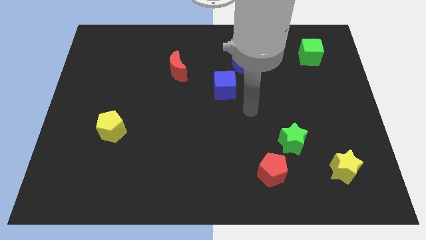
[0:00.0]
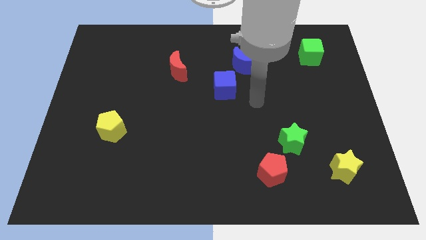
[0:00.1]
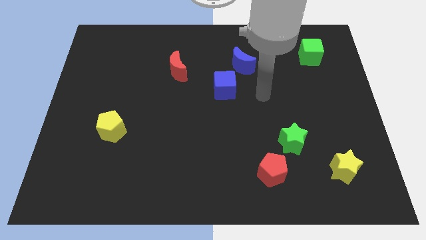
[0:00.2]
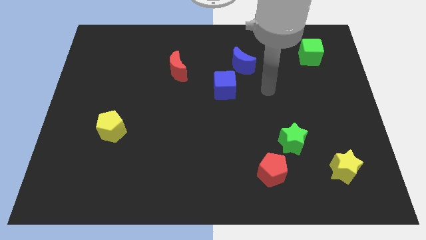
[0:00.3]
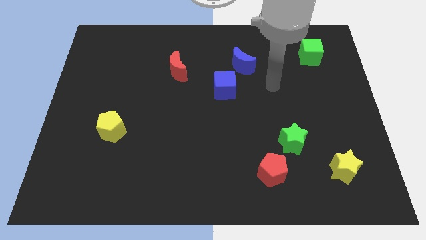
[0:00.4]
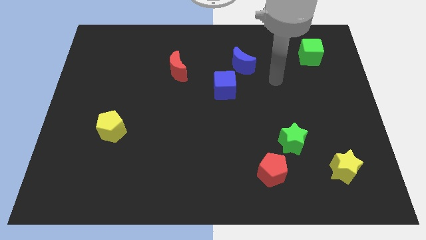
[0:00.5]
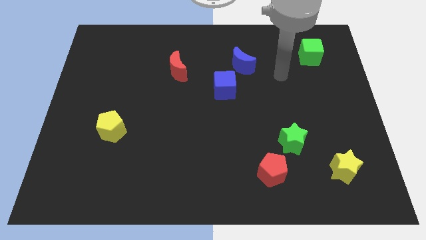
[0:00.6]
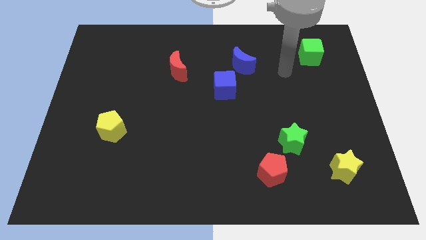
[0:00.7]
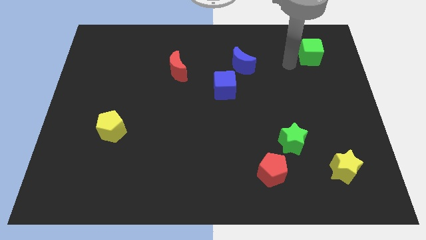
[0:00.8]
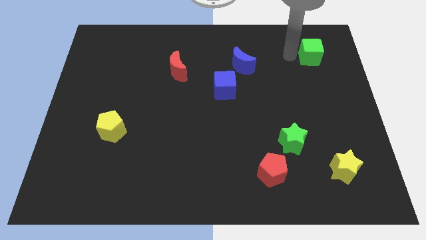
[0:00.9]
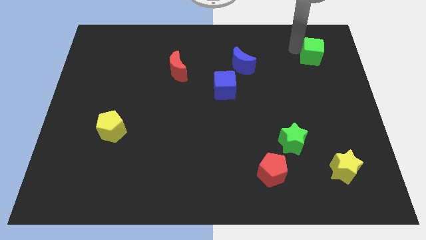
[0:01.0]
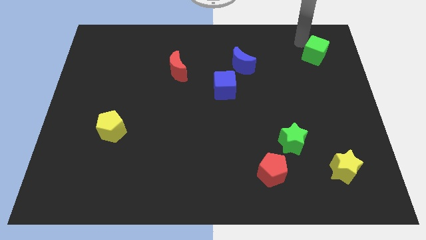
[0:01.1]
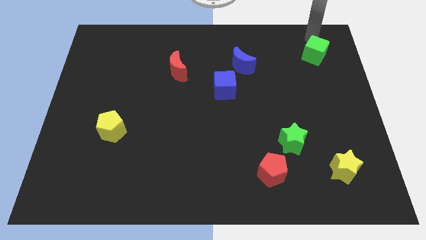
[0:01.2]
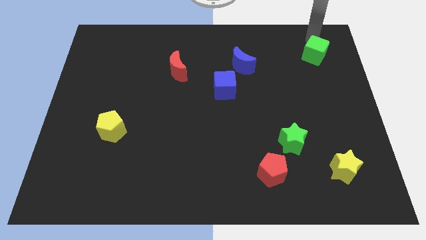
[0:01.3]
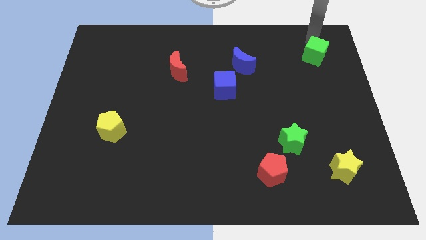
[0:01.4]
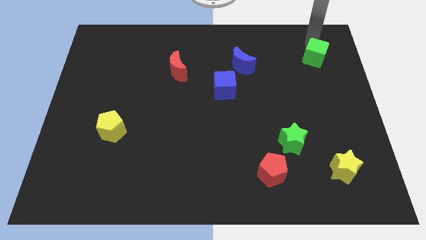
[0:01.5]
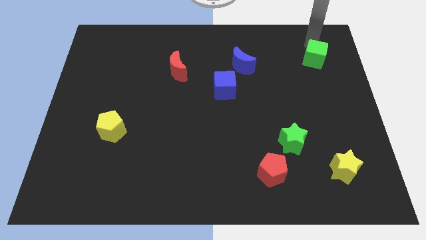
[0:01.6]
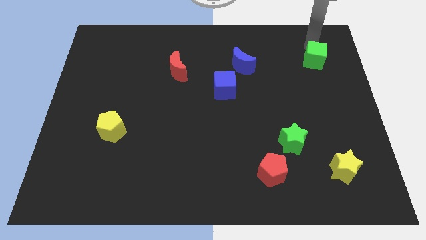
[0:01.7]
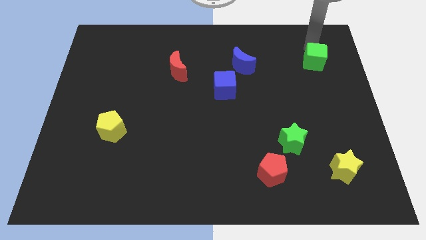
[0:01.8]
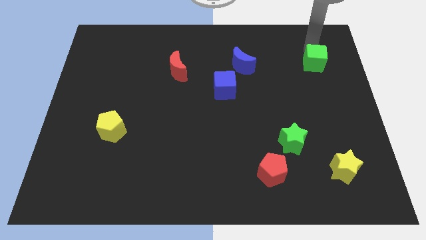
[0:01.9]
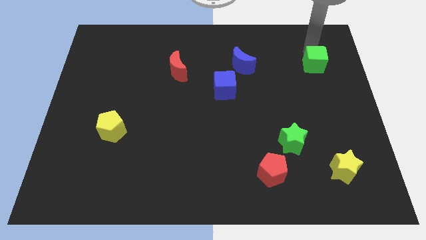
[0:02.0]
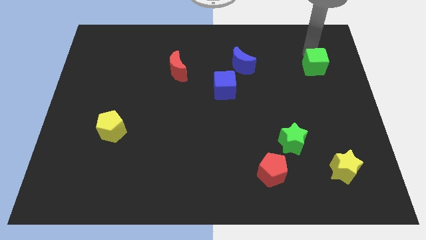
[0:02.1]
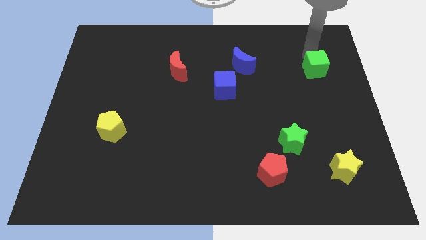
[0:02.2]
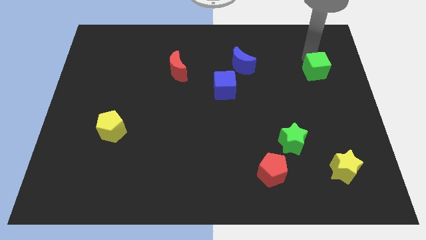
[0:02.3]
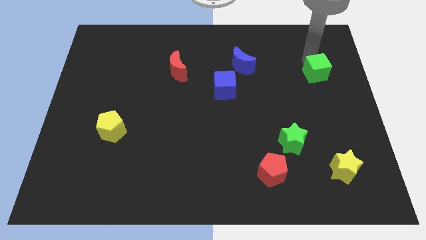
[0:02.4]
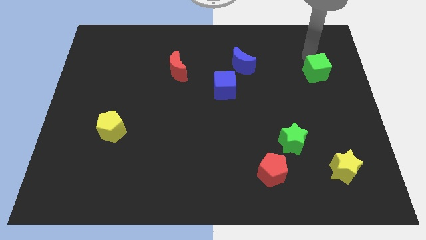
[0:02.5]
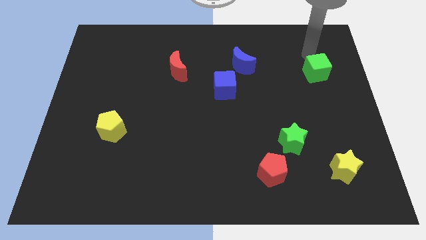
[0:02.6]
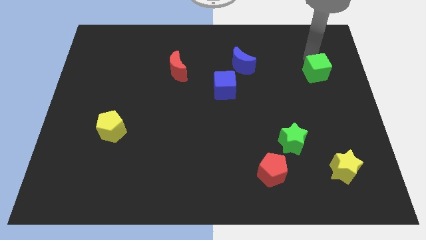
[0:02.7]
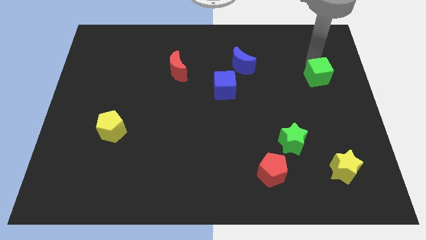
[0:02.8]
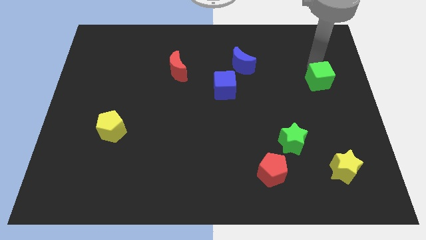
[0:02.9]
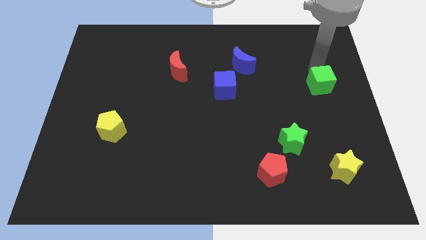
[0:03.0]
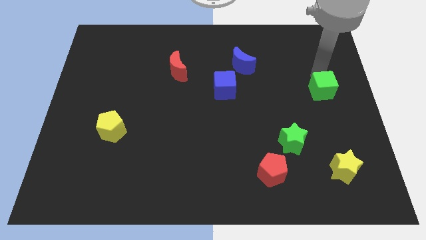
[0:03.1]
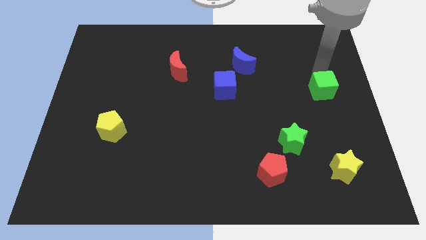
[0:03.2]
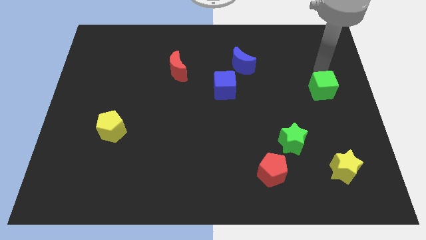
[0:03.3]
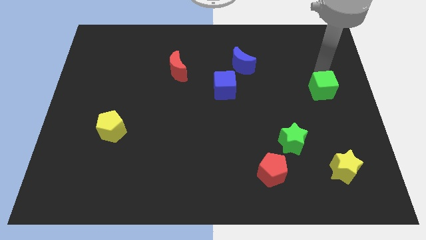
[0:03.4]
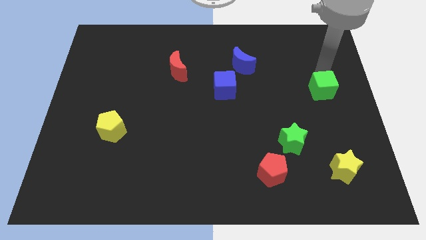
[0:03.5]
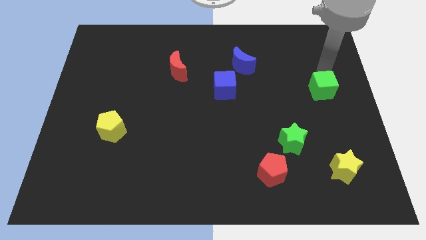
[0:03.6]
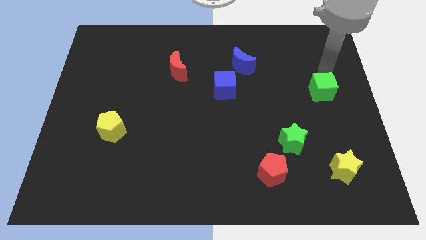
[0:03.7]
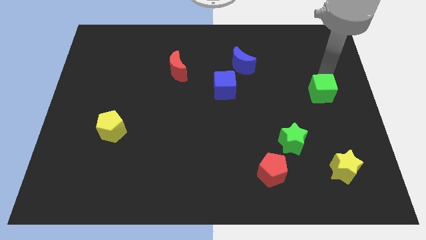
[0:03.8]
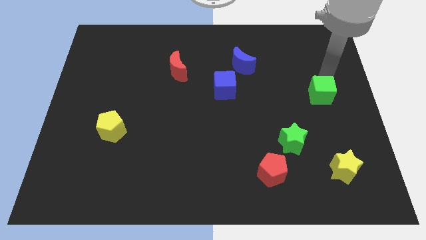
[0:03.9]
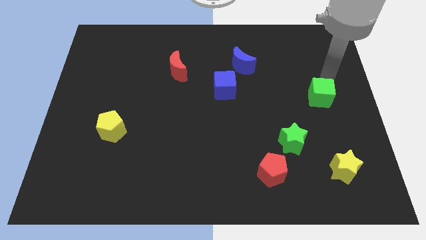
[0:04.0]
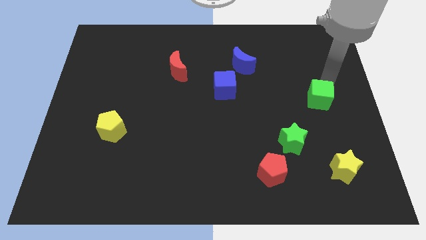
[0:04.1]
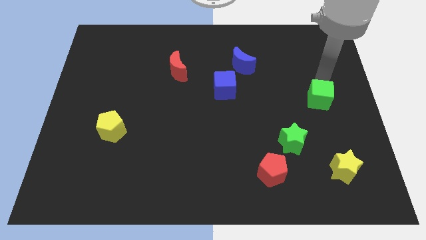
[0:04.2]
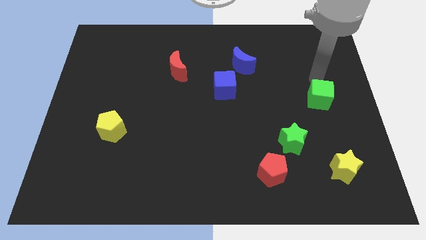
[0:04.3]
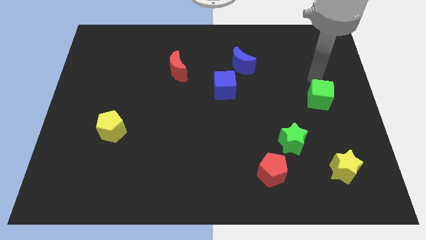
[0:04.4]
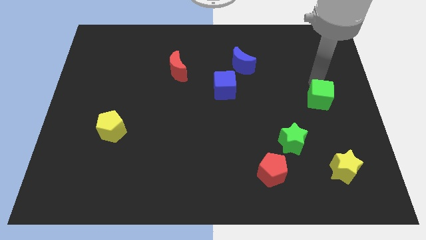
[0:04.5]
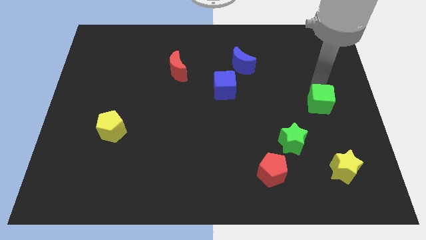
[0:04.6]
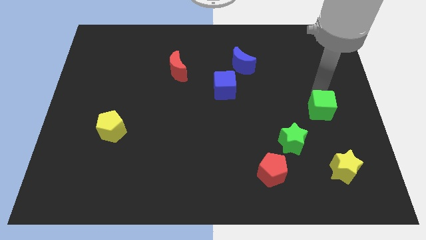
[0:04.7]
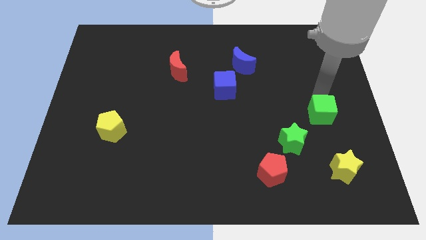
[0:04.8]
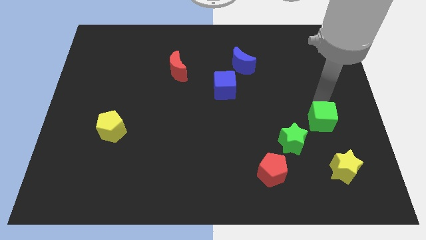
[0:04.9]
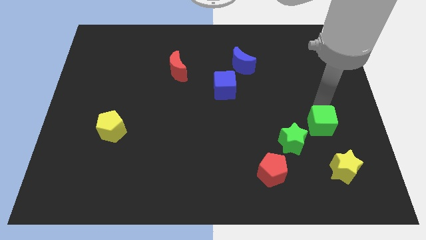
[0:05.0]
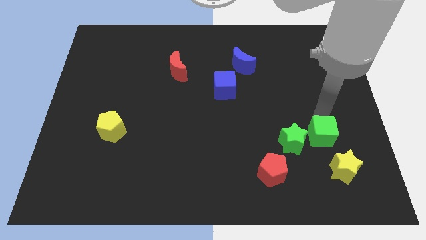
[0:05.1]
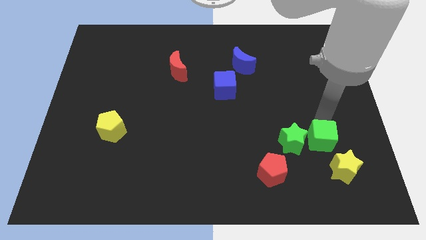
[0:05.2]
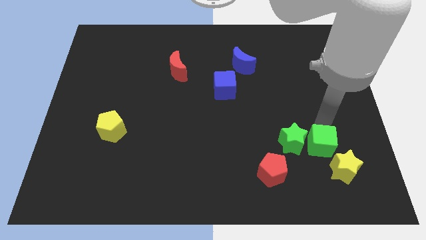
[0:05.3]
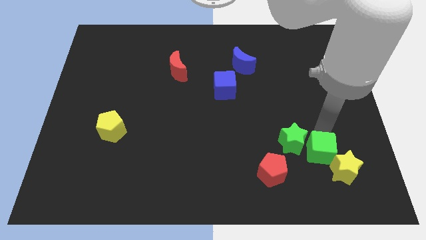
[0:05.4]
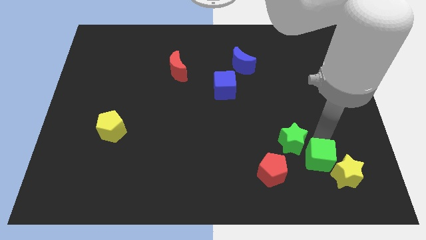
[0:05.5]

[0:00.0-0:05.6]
move the green cube to the right side of the red pentagon

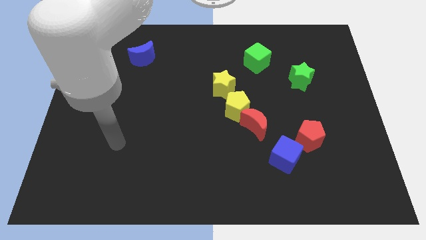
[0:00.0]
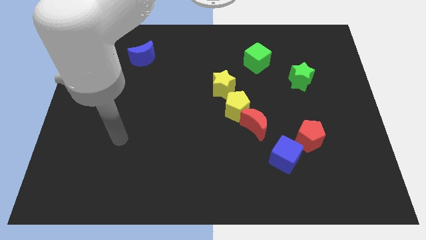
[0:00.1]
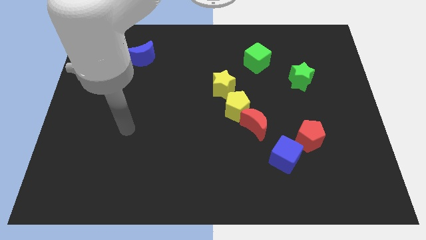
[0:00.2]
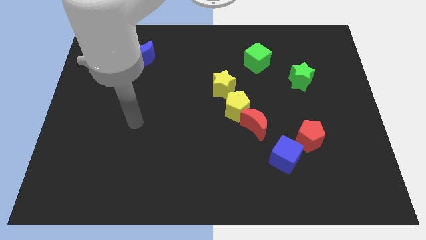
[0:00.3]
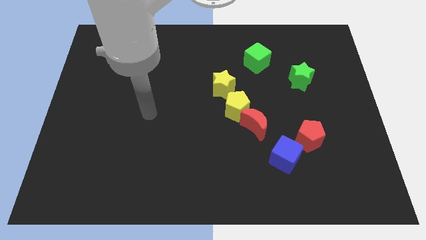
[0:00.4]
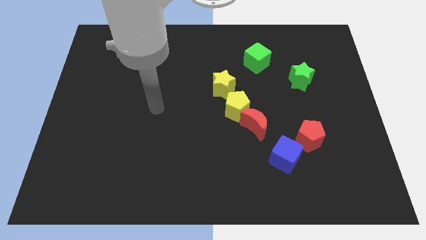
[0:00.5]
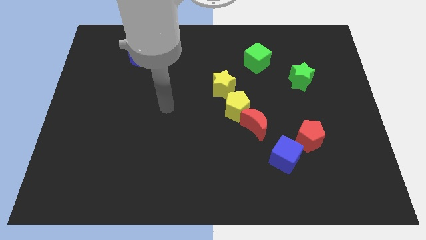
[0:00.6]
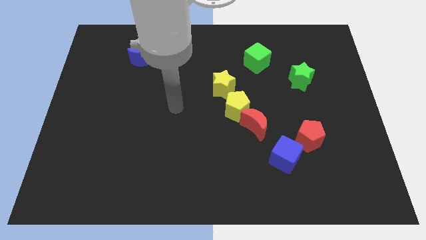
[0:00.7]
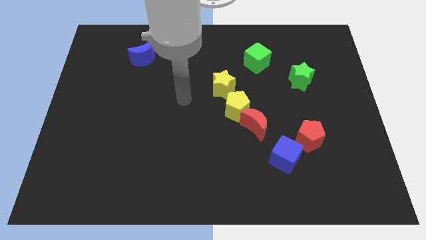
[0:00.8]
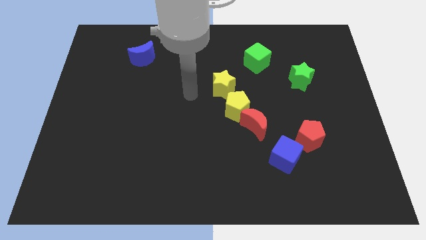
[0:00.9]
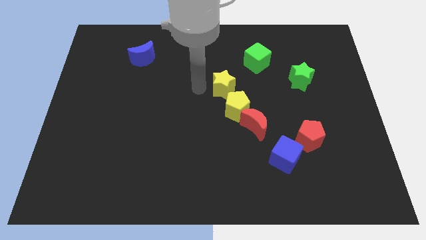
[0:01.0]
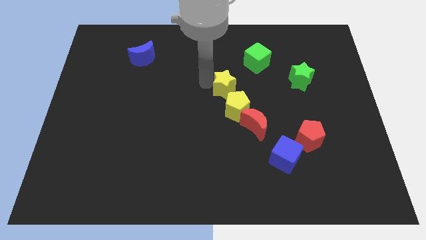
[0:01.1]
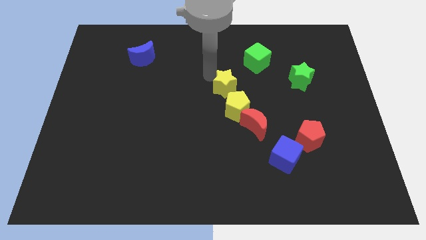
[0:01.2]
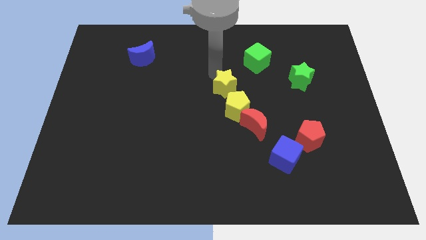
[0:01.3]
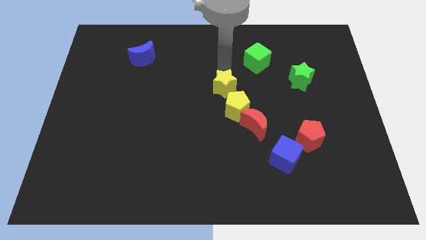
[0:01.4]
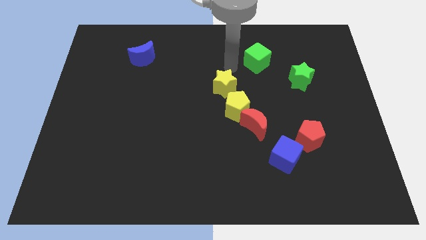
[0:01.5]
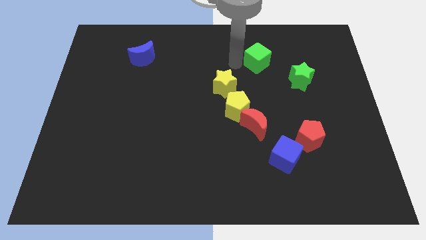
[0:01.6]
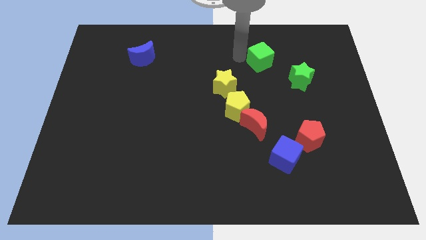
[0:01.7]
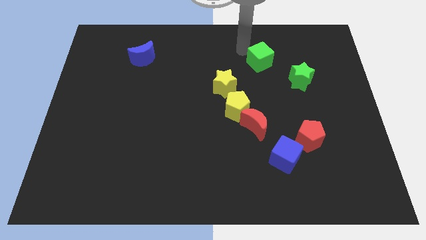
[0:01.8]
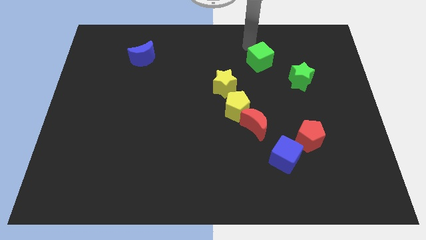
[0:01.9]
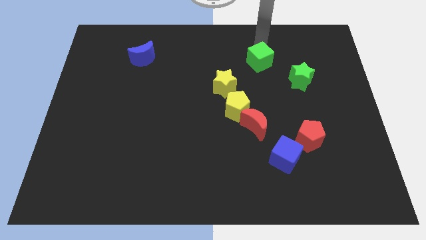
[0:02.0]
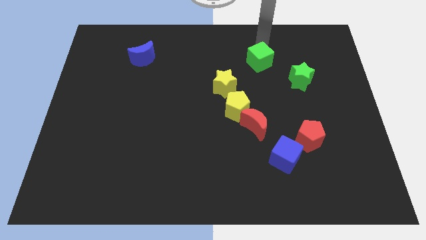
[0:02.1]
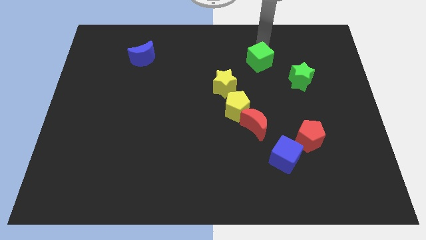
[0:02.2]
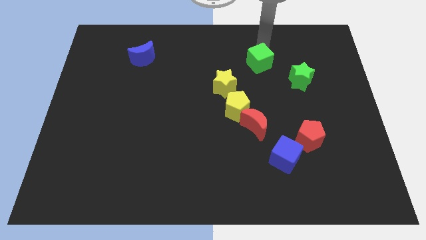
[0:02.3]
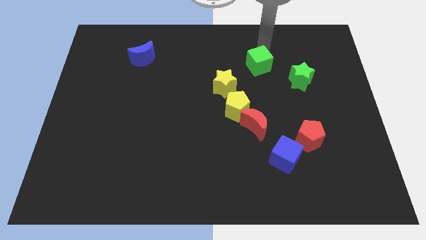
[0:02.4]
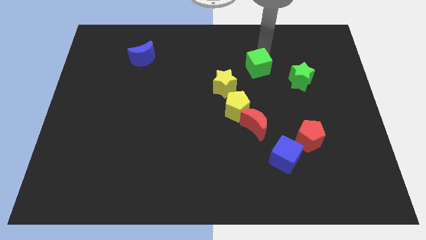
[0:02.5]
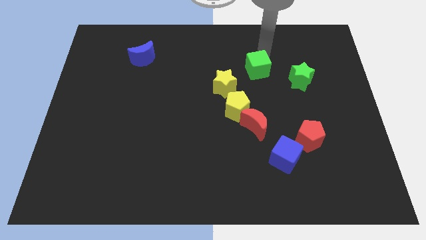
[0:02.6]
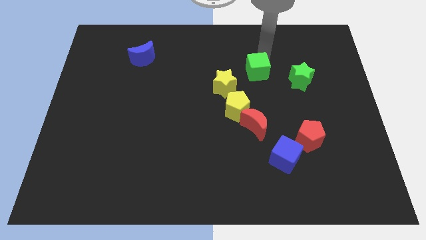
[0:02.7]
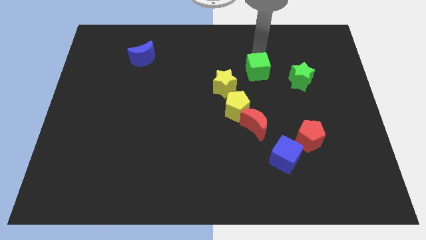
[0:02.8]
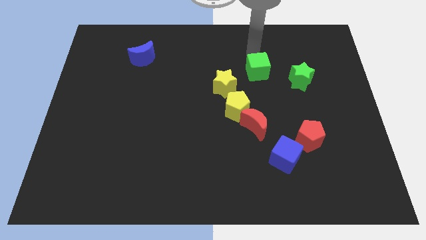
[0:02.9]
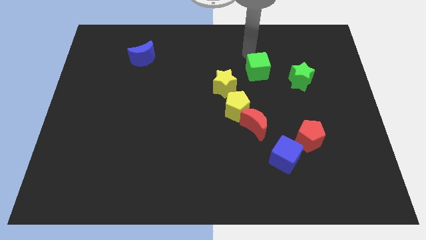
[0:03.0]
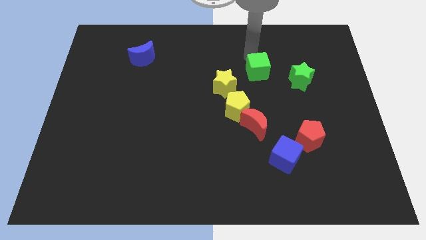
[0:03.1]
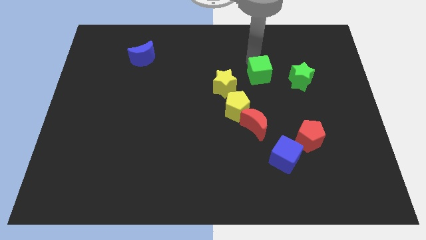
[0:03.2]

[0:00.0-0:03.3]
move the green cube right of the yellow star
